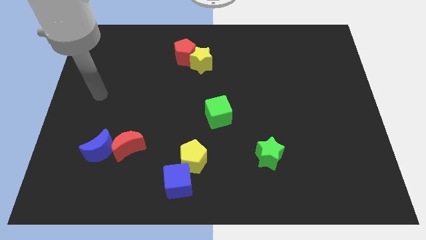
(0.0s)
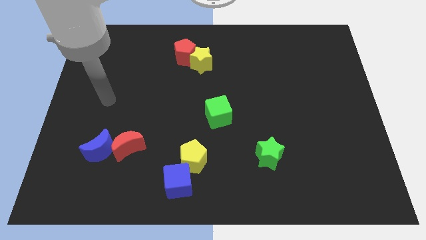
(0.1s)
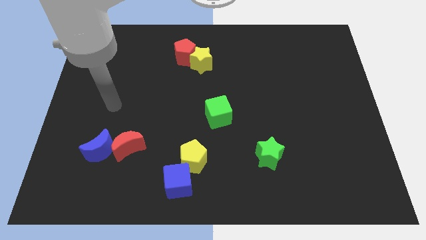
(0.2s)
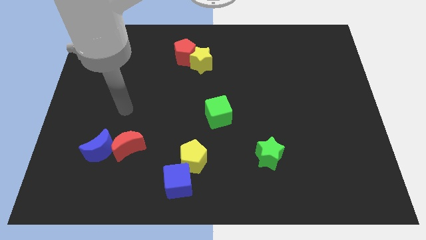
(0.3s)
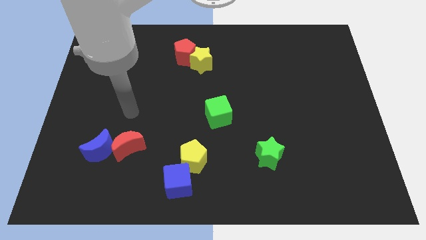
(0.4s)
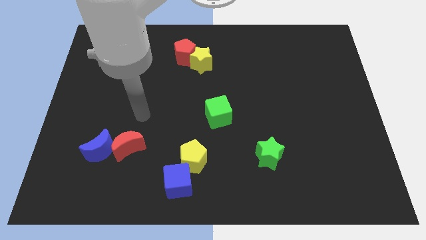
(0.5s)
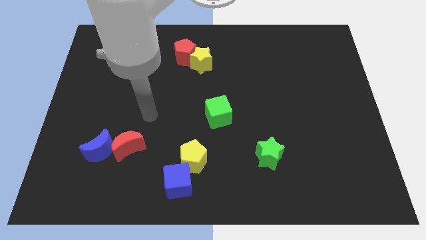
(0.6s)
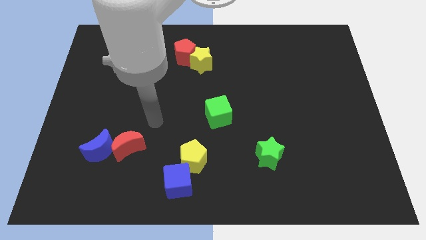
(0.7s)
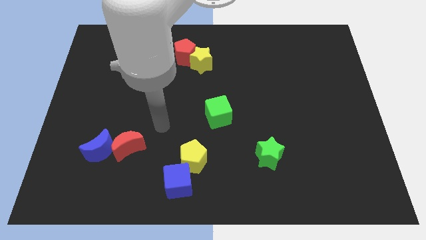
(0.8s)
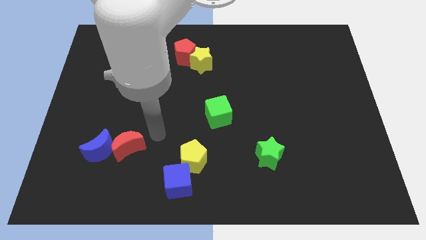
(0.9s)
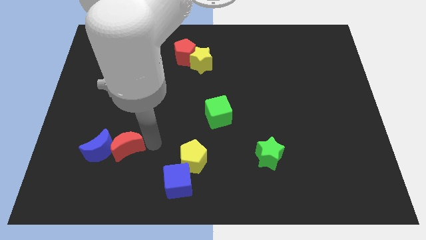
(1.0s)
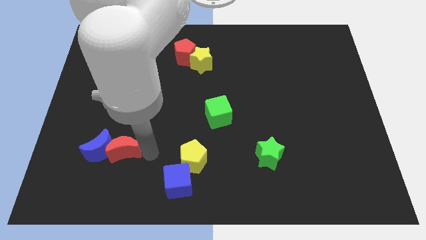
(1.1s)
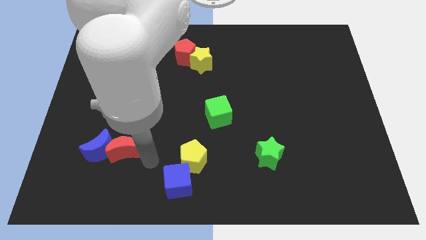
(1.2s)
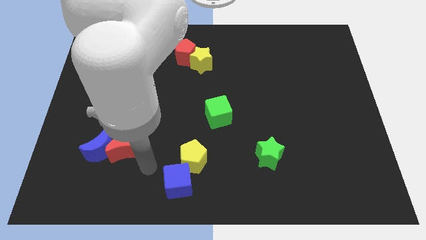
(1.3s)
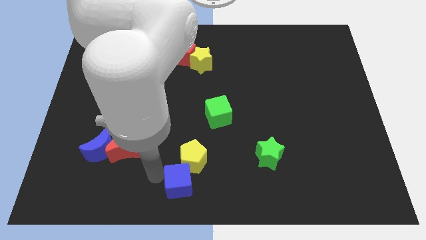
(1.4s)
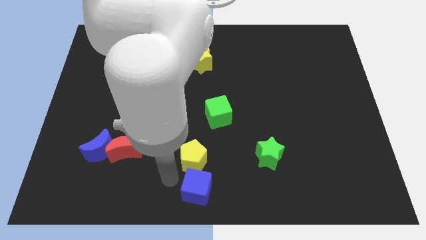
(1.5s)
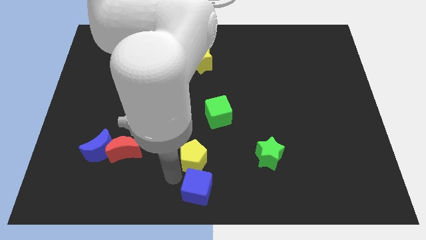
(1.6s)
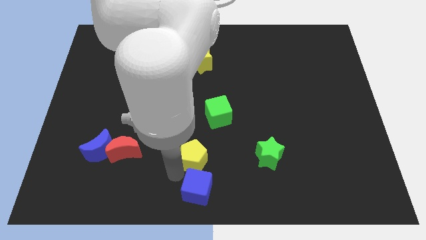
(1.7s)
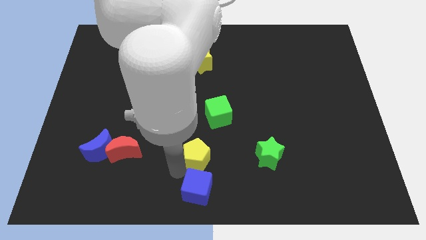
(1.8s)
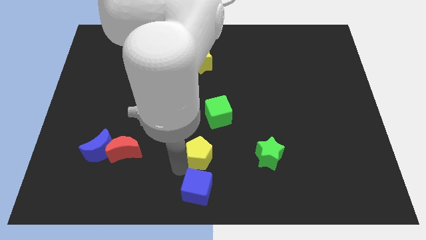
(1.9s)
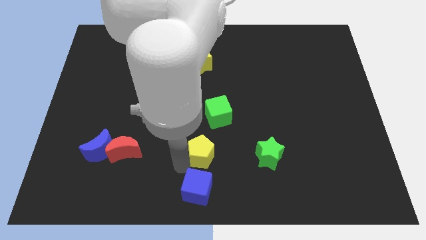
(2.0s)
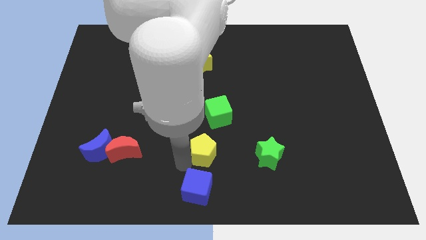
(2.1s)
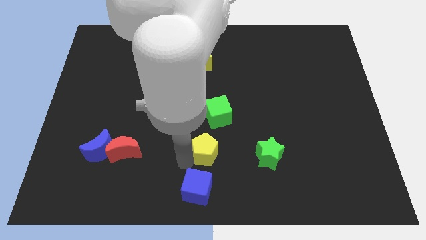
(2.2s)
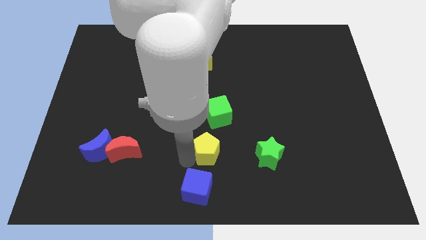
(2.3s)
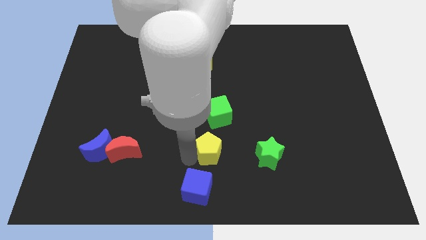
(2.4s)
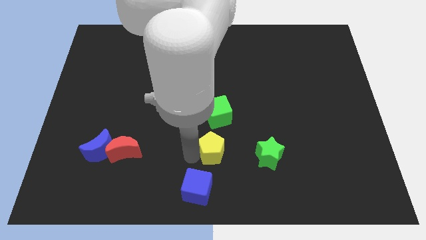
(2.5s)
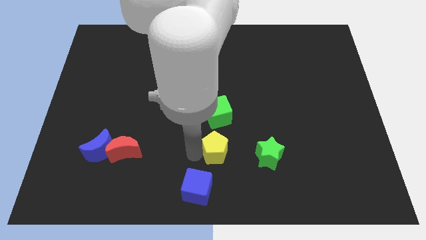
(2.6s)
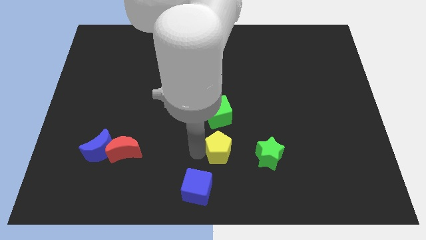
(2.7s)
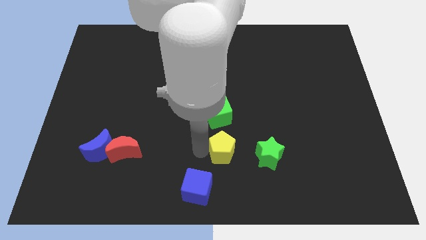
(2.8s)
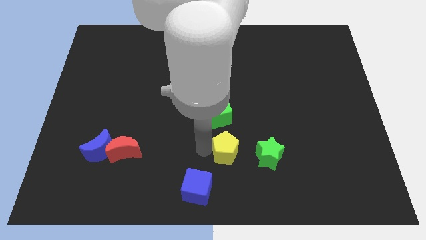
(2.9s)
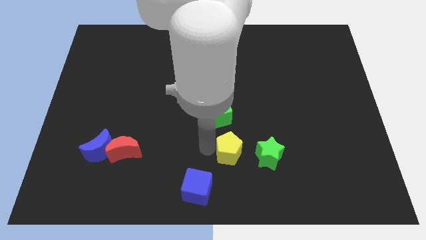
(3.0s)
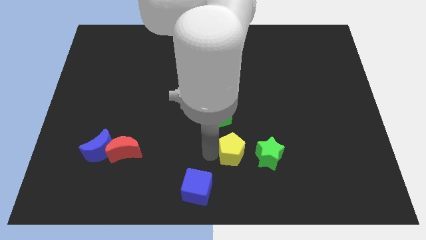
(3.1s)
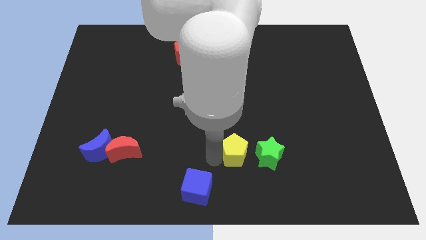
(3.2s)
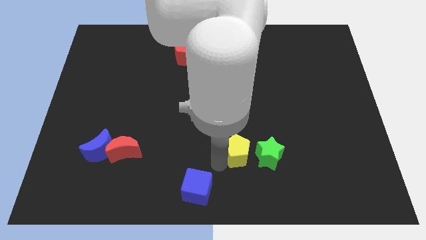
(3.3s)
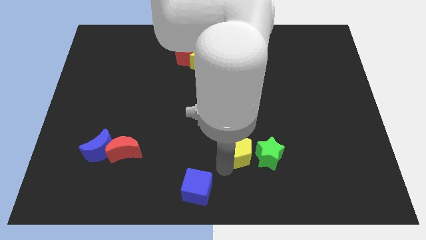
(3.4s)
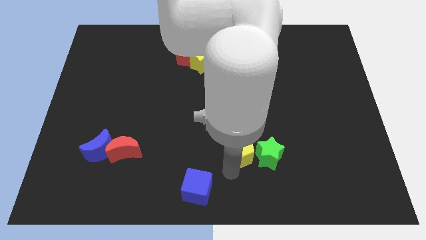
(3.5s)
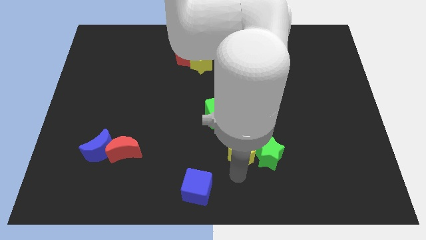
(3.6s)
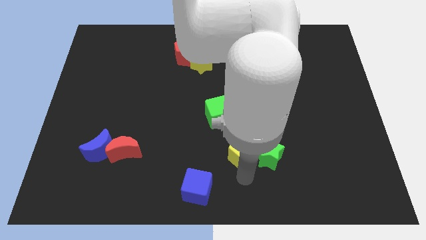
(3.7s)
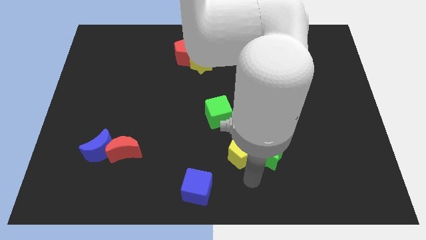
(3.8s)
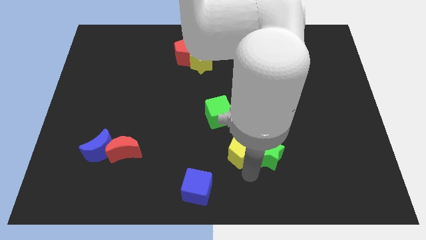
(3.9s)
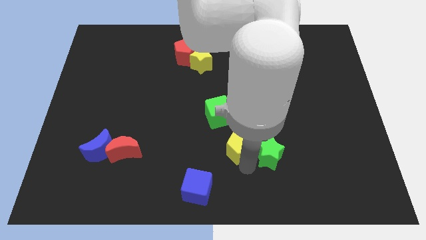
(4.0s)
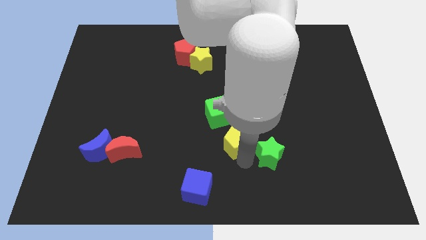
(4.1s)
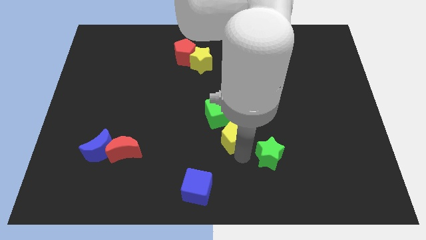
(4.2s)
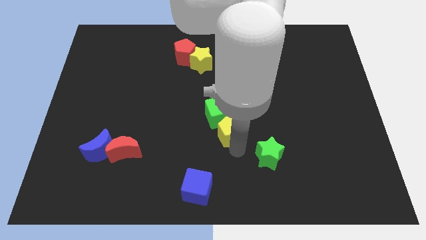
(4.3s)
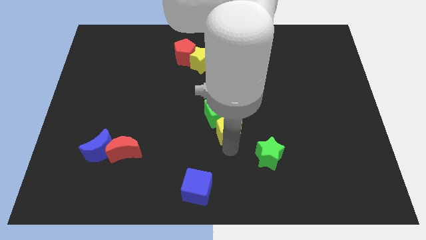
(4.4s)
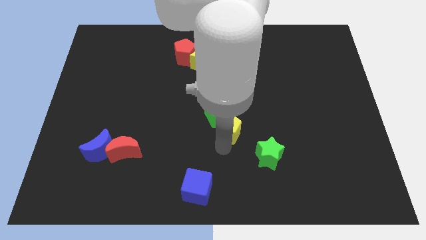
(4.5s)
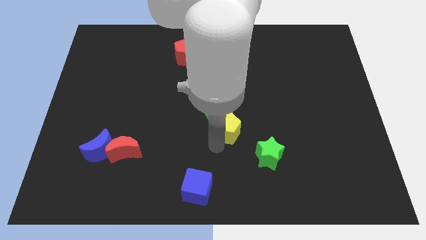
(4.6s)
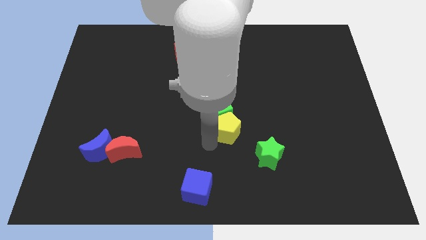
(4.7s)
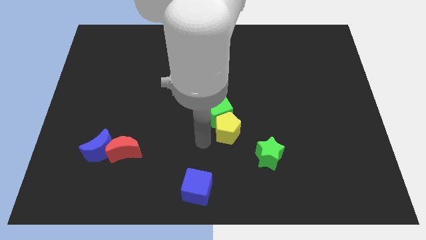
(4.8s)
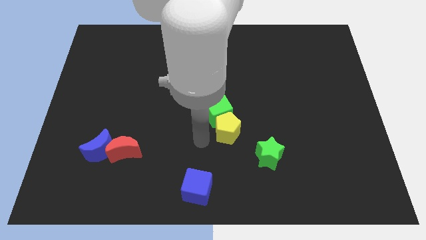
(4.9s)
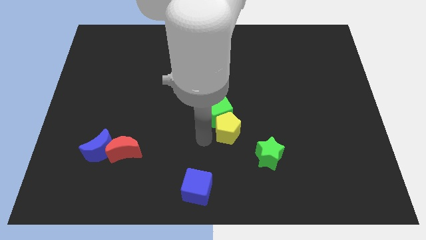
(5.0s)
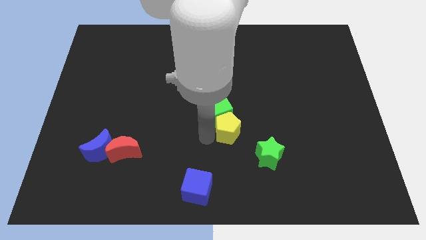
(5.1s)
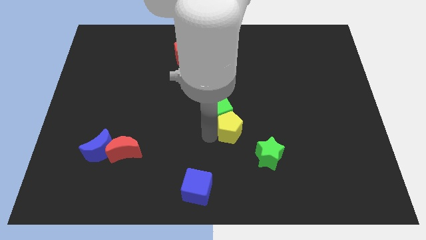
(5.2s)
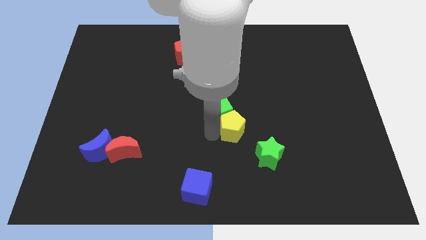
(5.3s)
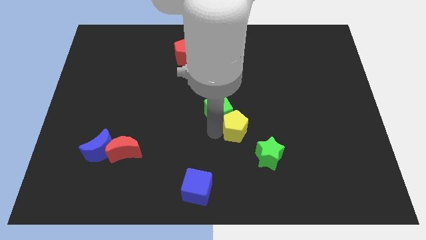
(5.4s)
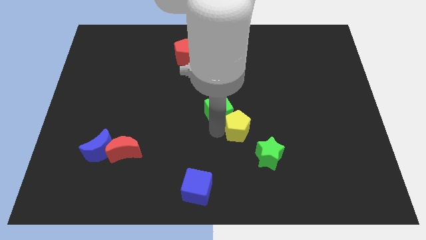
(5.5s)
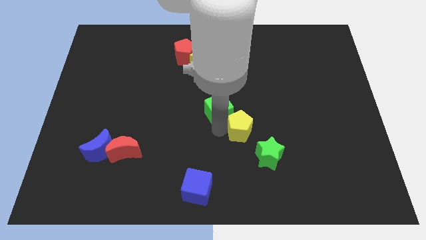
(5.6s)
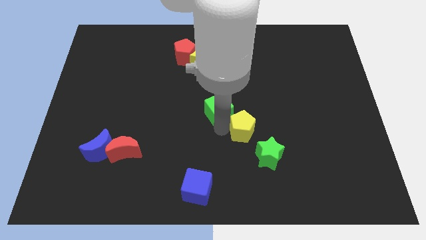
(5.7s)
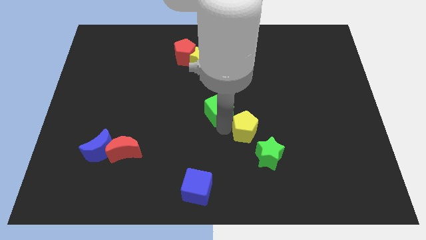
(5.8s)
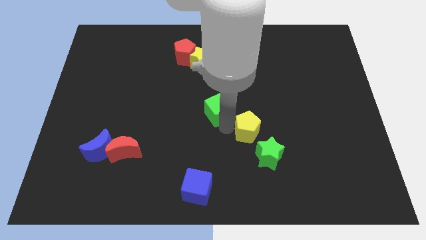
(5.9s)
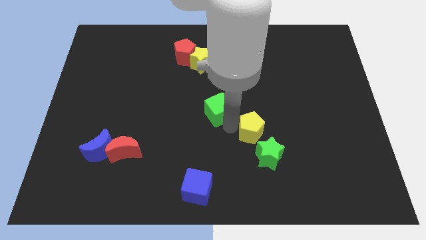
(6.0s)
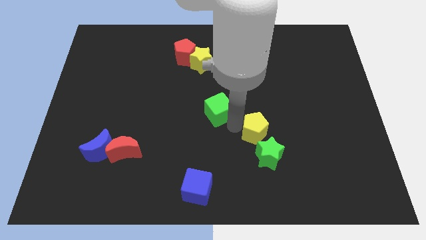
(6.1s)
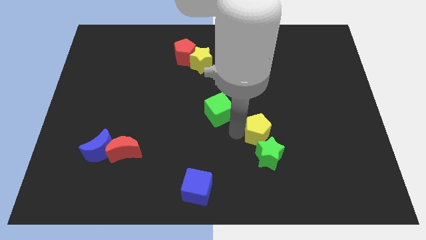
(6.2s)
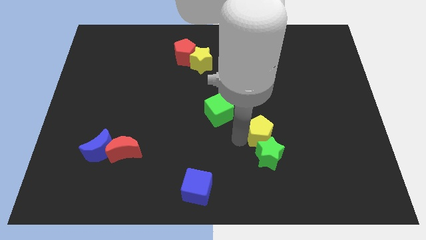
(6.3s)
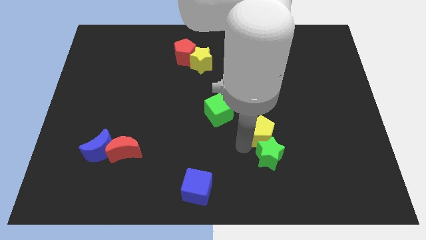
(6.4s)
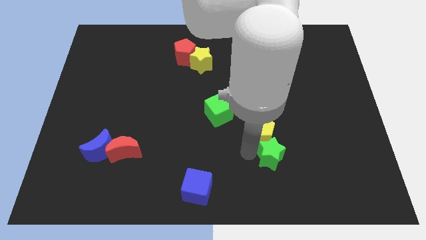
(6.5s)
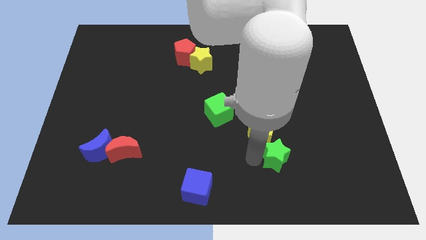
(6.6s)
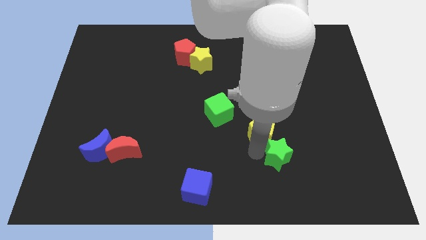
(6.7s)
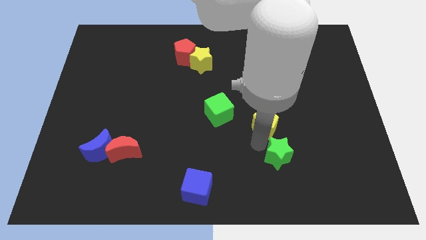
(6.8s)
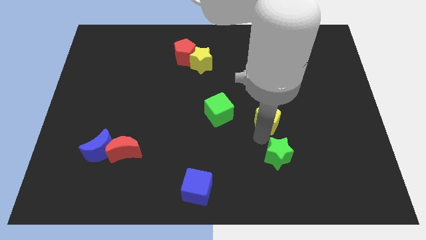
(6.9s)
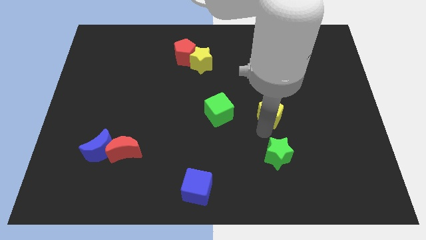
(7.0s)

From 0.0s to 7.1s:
slide the yellow pentagon up and to the right diagonally

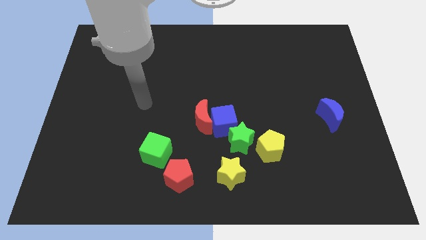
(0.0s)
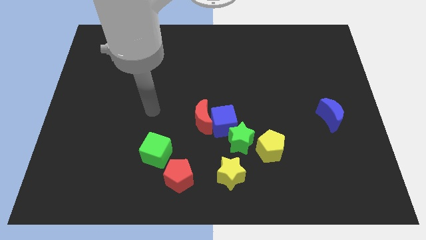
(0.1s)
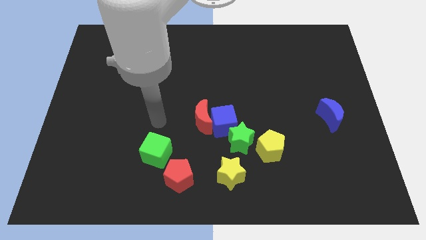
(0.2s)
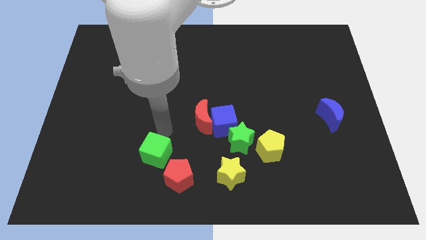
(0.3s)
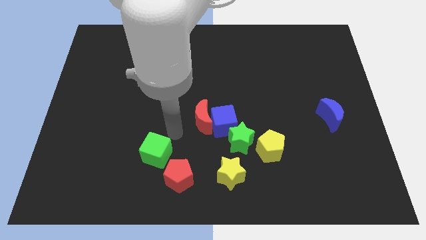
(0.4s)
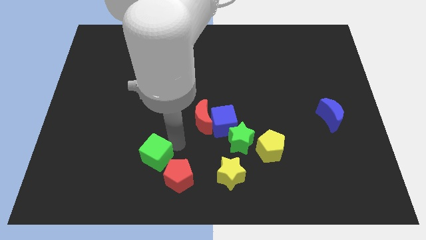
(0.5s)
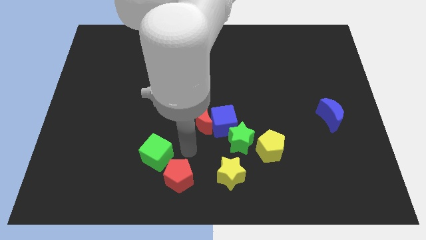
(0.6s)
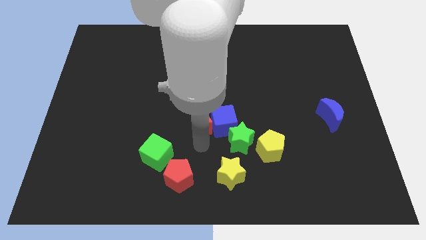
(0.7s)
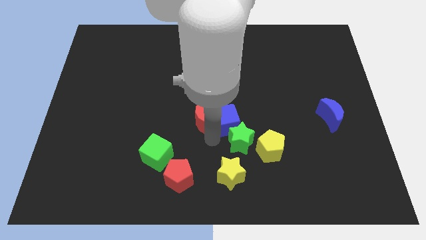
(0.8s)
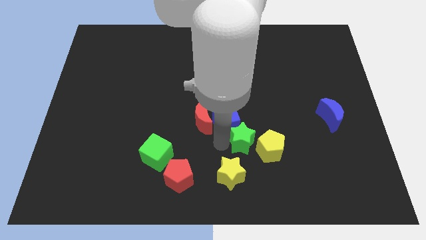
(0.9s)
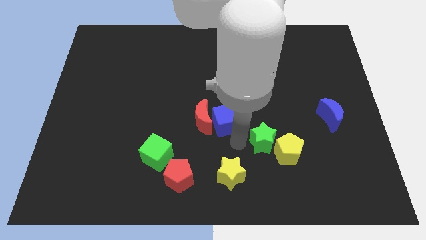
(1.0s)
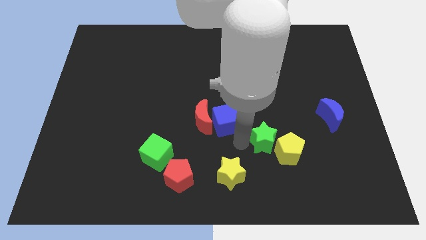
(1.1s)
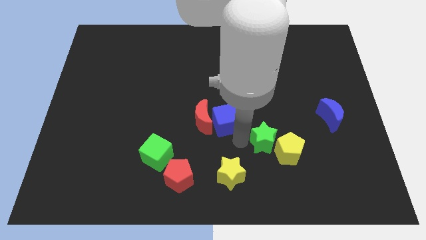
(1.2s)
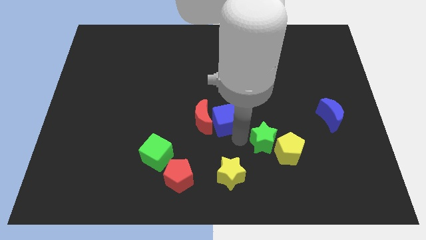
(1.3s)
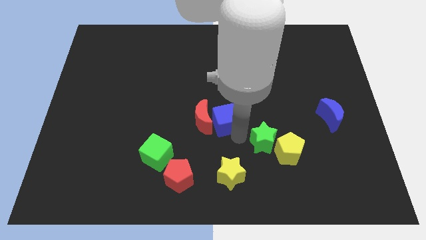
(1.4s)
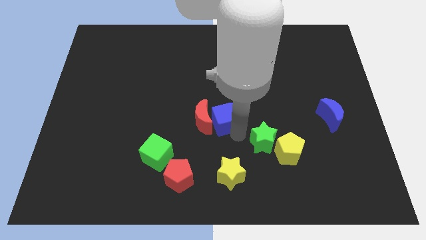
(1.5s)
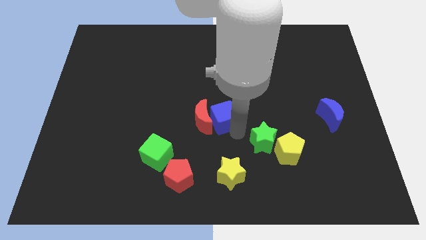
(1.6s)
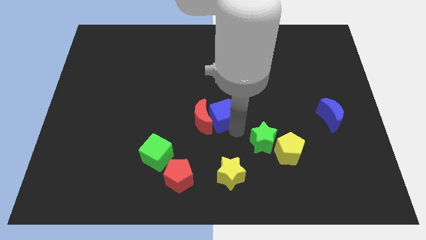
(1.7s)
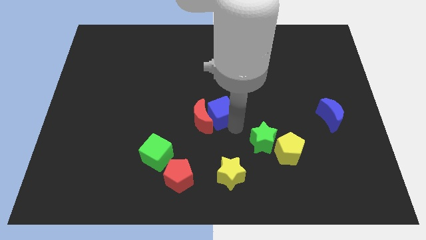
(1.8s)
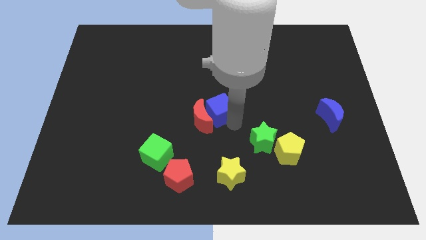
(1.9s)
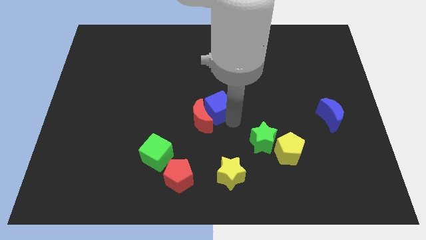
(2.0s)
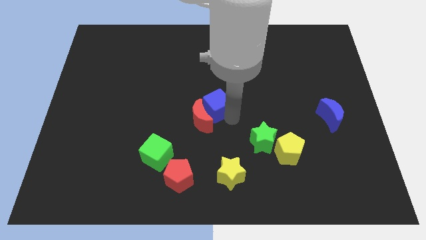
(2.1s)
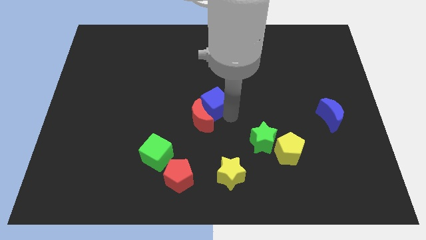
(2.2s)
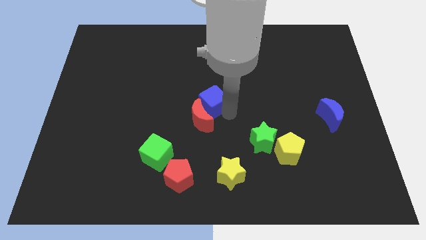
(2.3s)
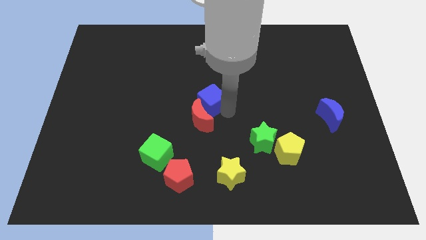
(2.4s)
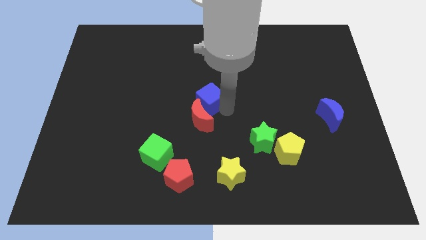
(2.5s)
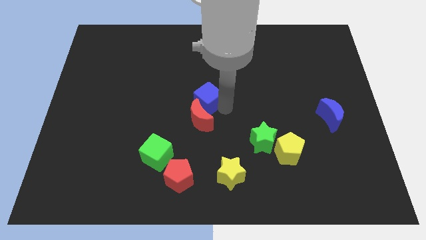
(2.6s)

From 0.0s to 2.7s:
move the blue cube upwards and then to the left a bit
